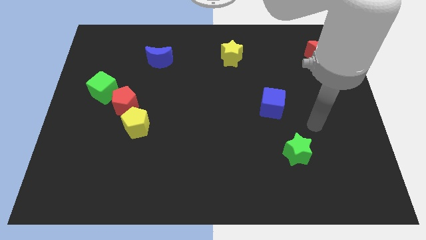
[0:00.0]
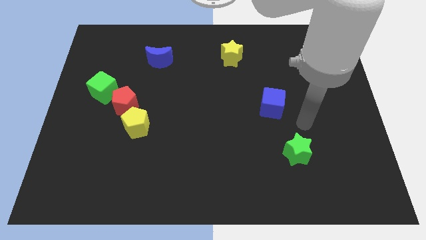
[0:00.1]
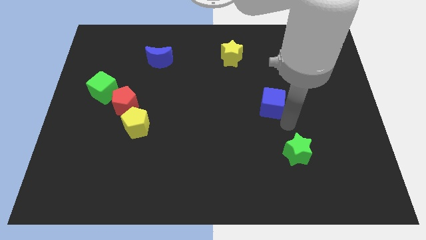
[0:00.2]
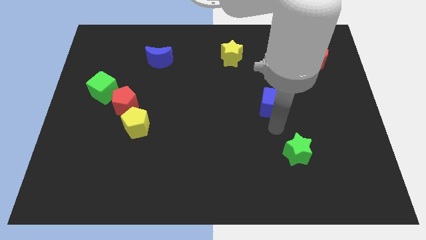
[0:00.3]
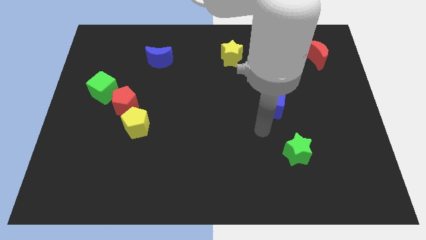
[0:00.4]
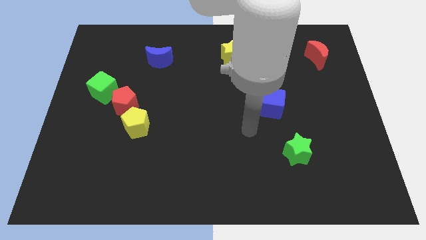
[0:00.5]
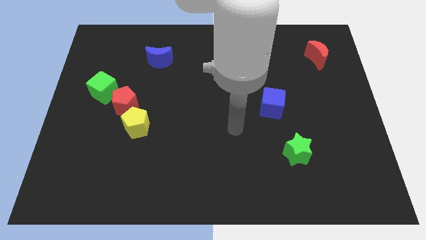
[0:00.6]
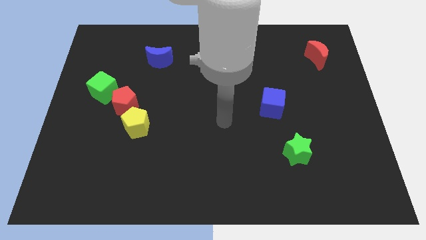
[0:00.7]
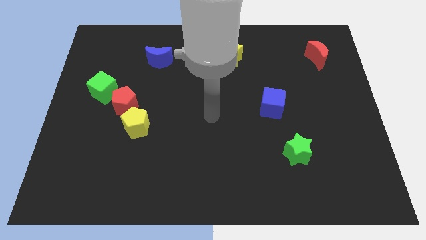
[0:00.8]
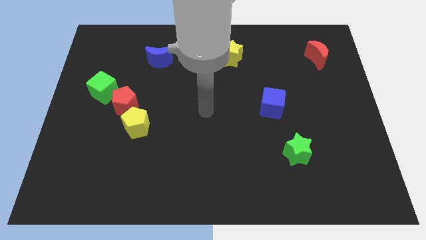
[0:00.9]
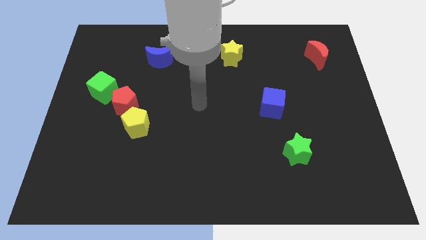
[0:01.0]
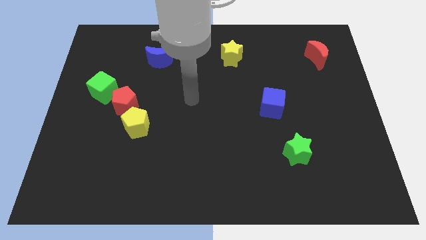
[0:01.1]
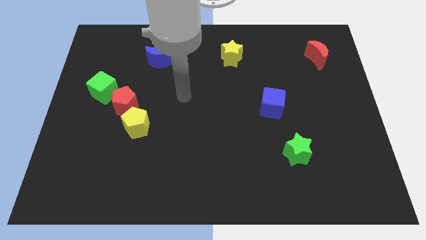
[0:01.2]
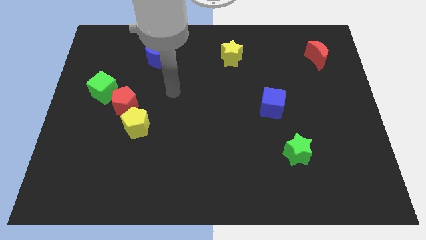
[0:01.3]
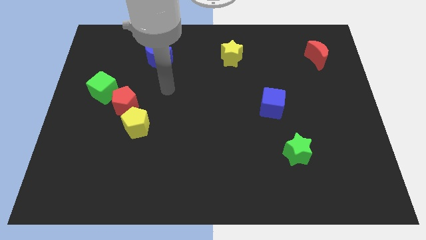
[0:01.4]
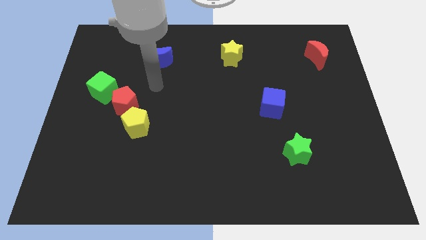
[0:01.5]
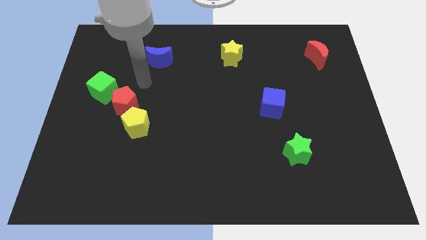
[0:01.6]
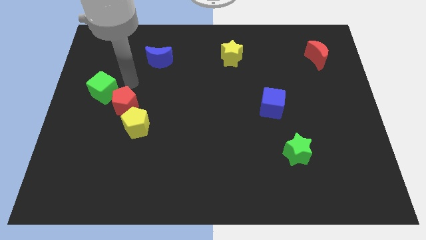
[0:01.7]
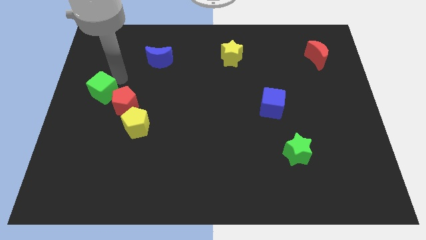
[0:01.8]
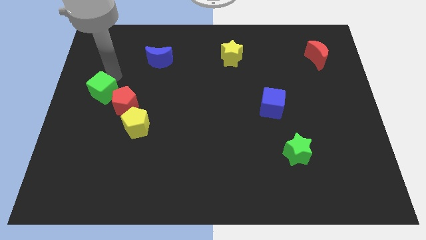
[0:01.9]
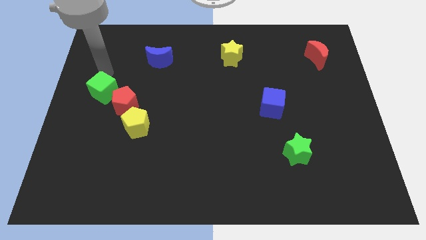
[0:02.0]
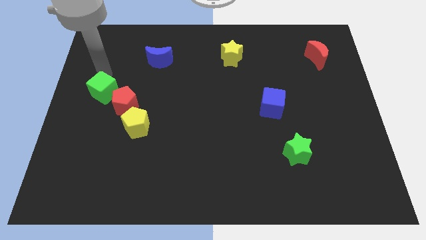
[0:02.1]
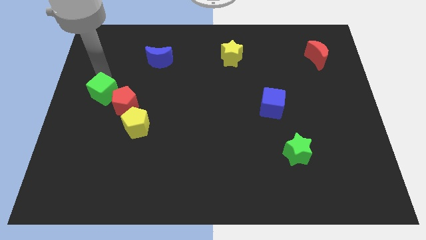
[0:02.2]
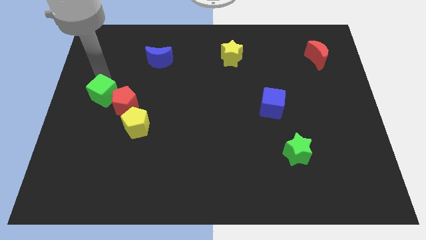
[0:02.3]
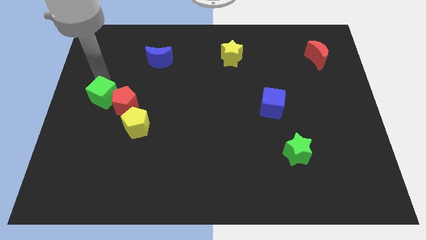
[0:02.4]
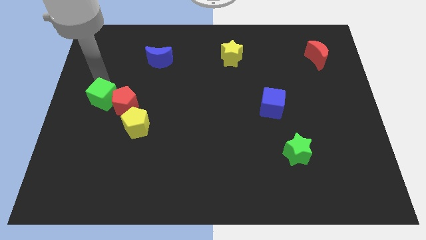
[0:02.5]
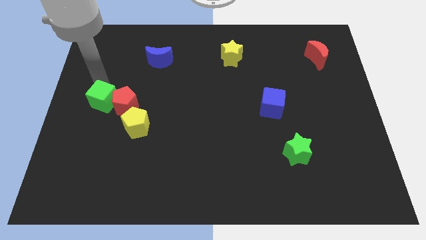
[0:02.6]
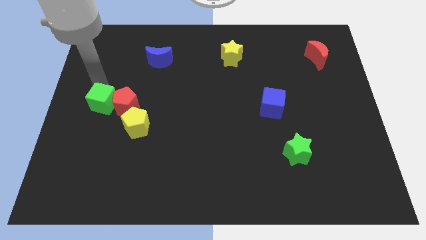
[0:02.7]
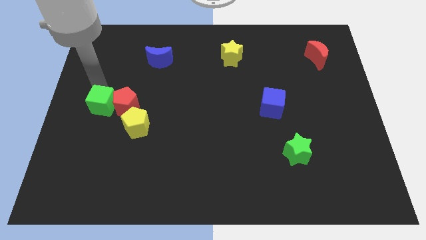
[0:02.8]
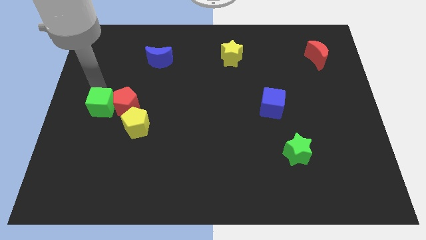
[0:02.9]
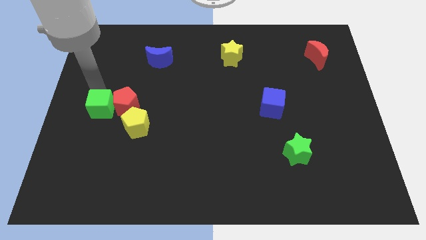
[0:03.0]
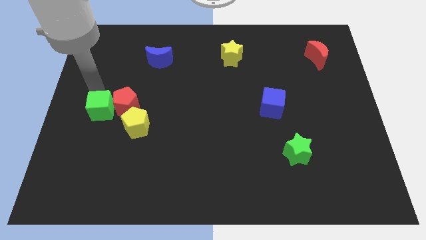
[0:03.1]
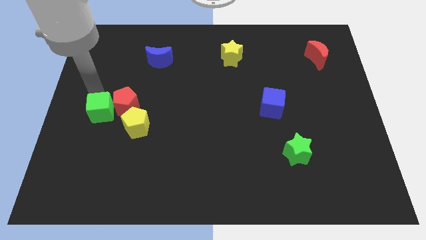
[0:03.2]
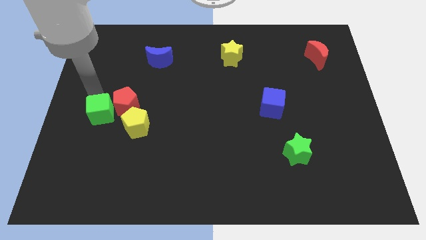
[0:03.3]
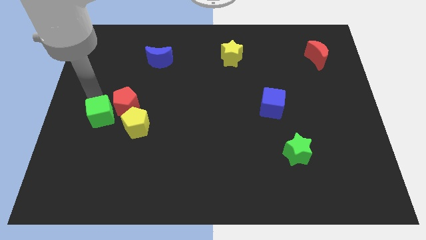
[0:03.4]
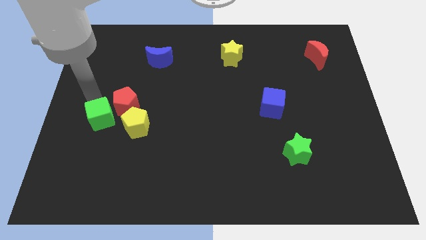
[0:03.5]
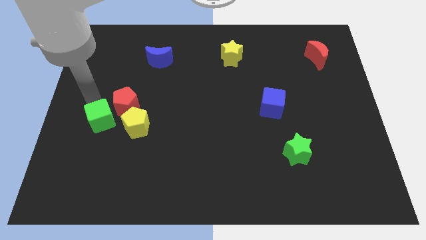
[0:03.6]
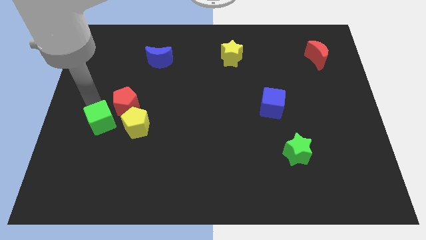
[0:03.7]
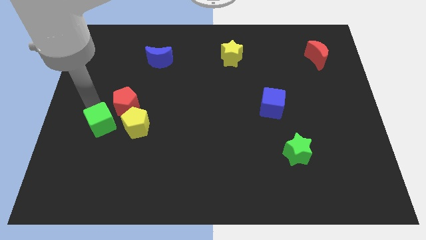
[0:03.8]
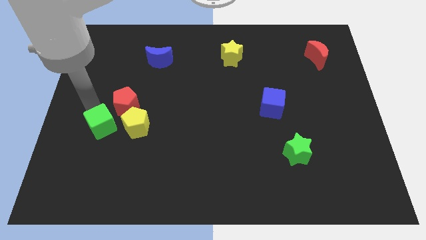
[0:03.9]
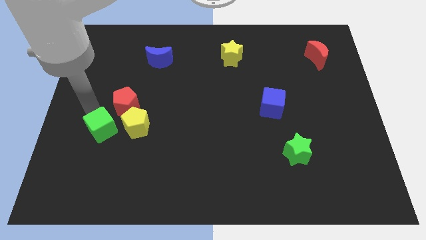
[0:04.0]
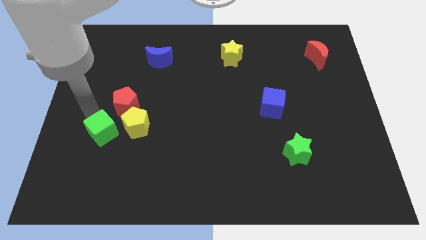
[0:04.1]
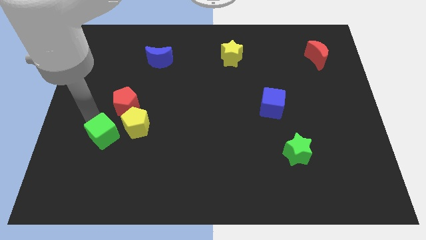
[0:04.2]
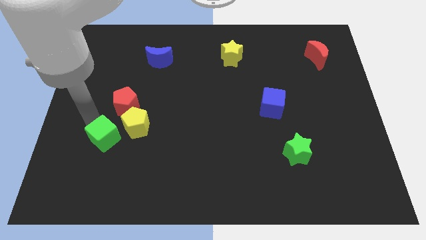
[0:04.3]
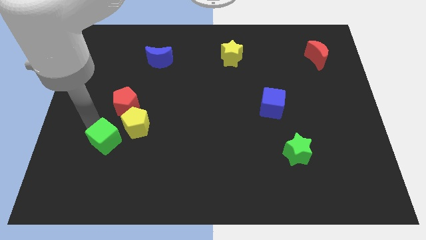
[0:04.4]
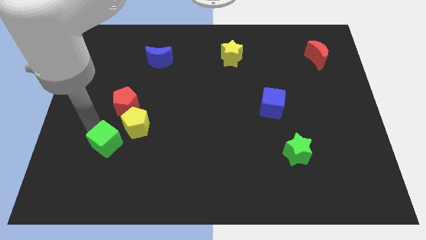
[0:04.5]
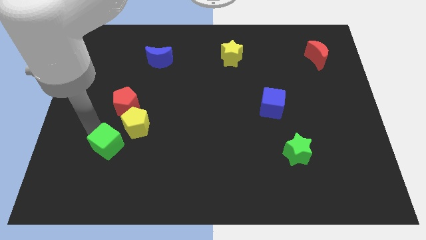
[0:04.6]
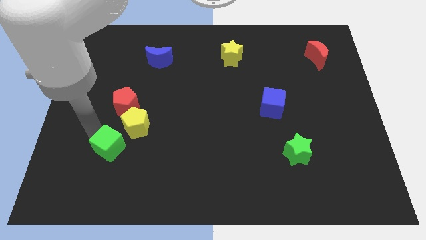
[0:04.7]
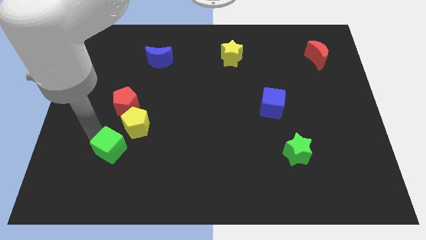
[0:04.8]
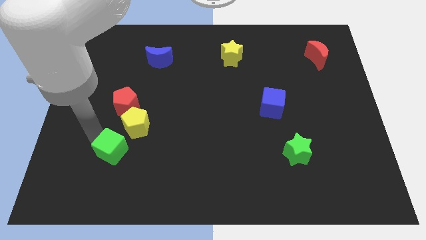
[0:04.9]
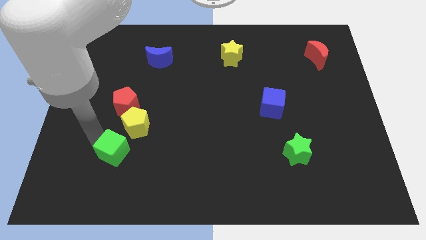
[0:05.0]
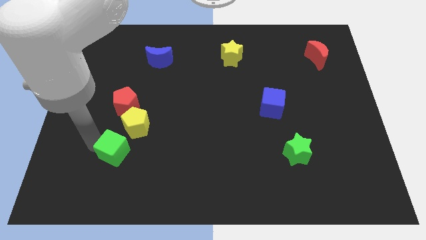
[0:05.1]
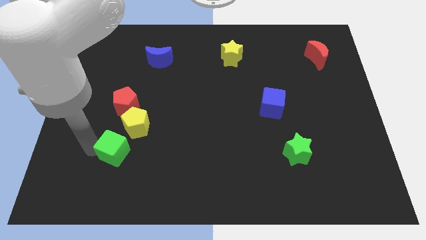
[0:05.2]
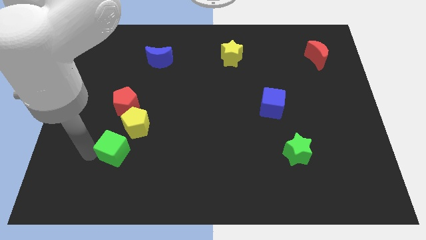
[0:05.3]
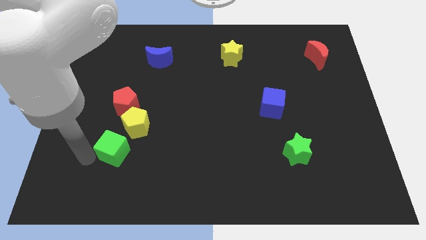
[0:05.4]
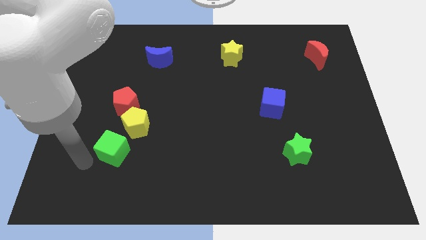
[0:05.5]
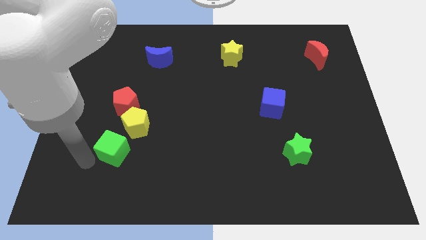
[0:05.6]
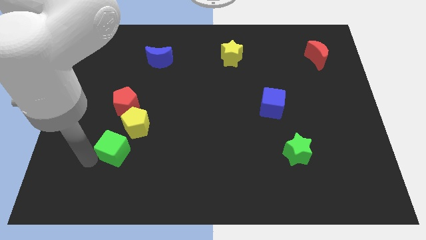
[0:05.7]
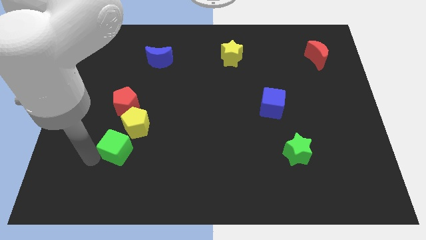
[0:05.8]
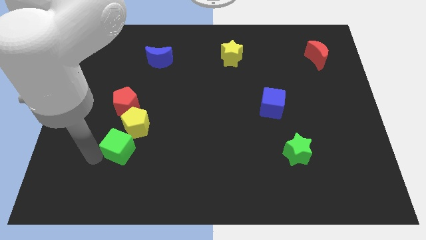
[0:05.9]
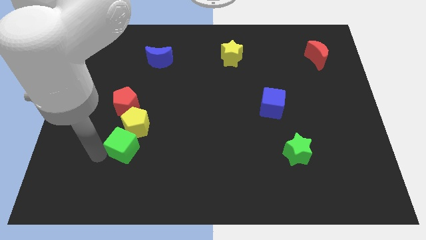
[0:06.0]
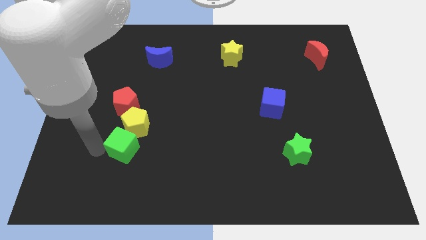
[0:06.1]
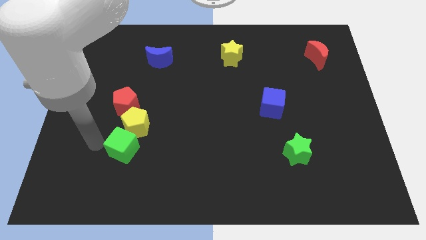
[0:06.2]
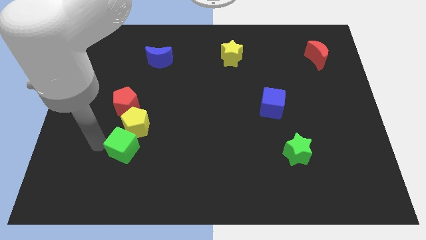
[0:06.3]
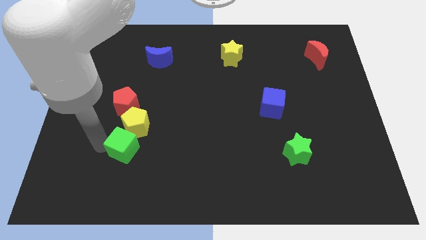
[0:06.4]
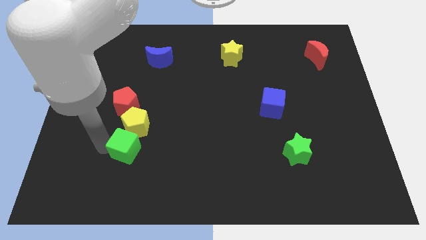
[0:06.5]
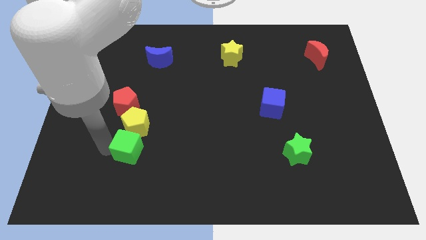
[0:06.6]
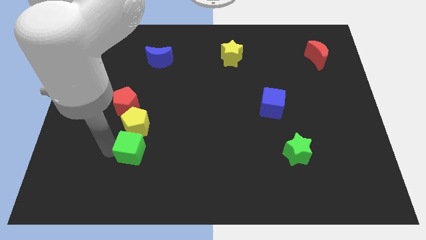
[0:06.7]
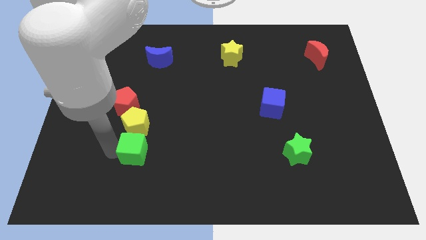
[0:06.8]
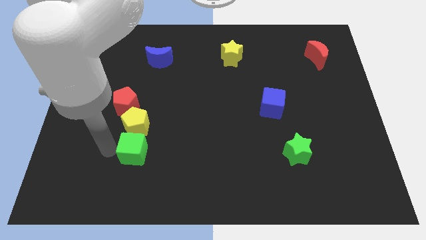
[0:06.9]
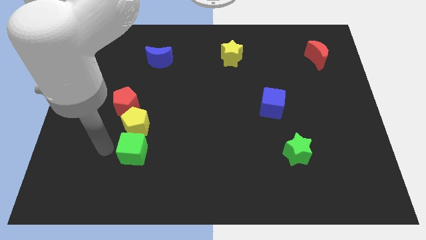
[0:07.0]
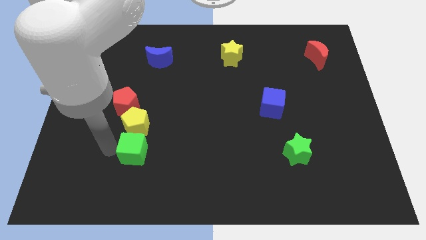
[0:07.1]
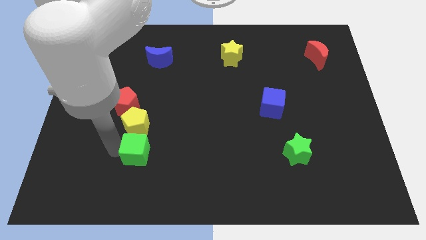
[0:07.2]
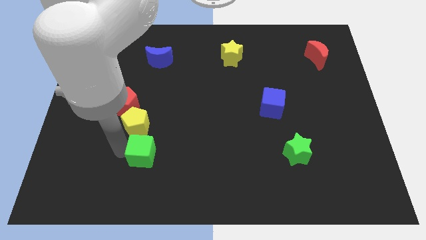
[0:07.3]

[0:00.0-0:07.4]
slide the green cube diagonally downwards and right

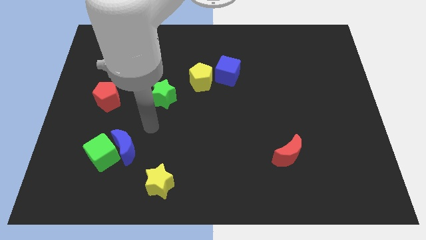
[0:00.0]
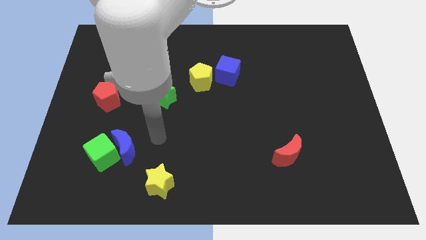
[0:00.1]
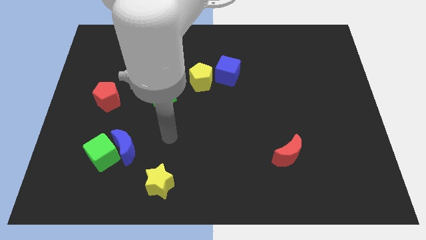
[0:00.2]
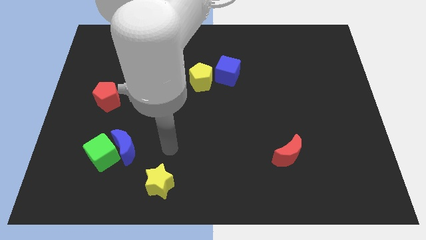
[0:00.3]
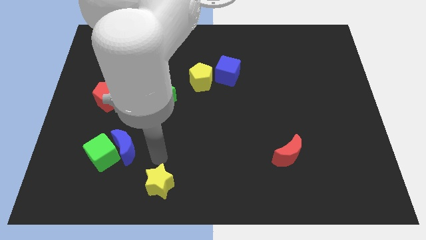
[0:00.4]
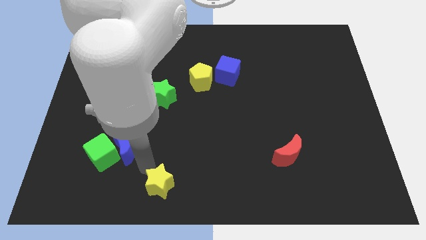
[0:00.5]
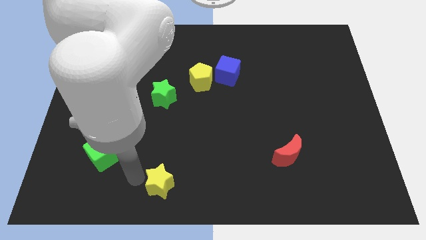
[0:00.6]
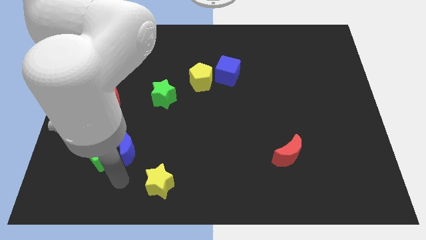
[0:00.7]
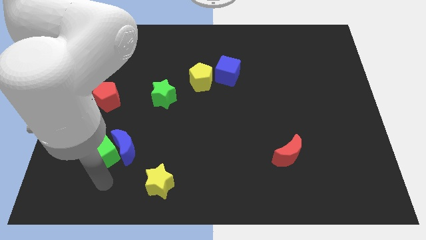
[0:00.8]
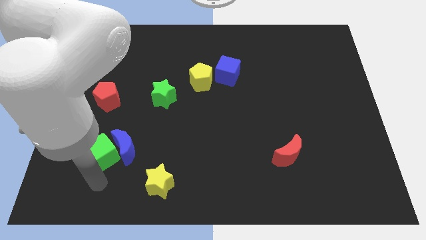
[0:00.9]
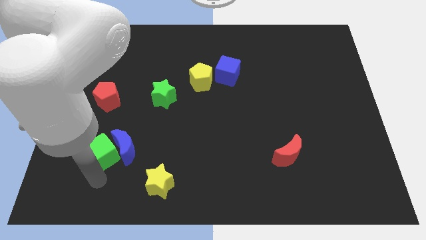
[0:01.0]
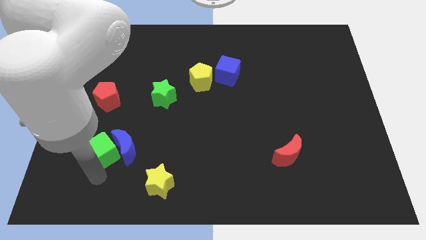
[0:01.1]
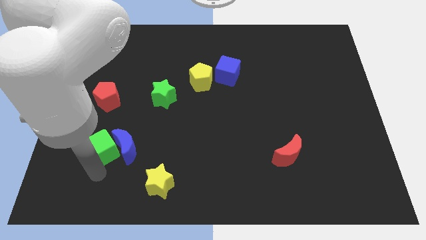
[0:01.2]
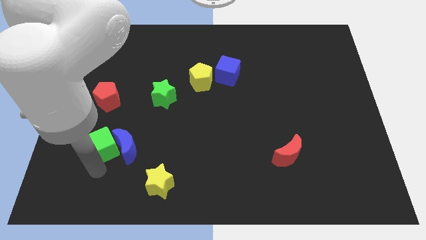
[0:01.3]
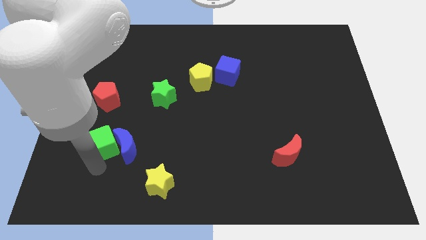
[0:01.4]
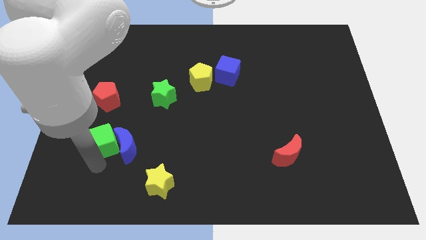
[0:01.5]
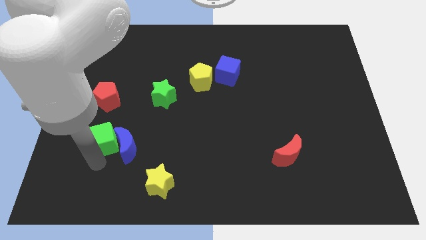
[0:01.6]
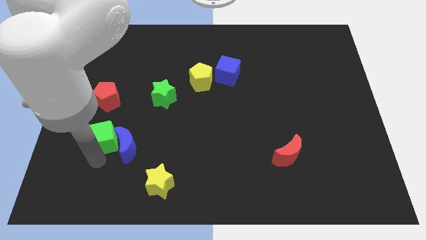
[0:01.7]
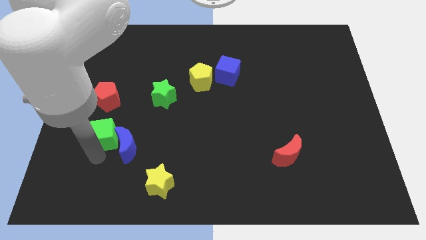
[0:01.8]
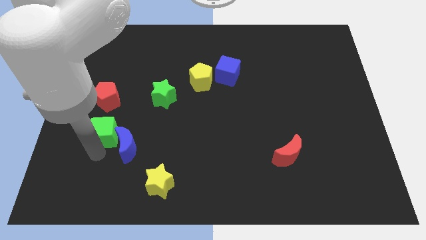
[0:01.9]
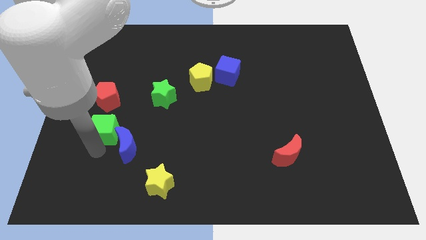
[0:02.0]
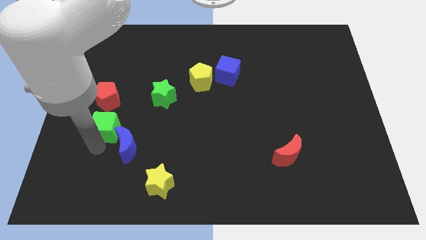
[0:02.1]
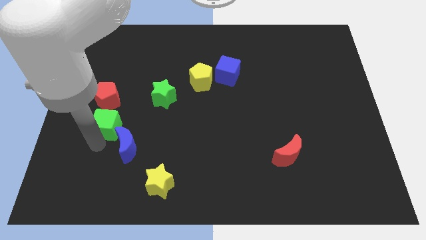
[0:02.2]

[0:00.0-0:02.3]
slightly move the green cube up
